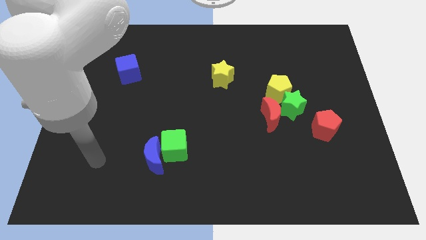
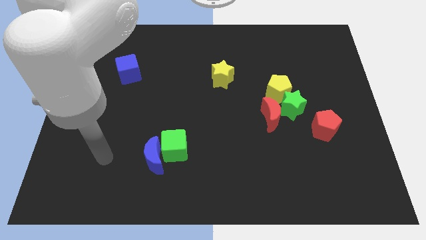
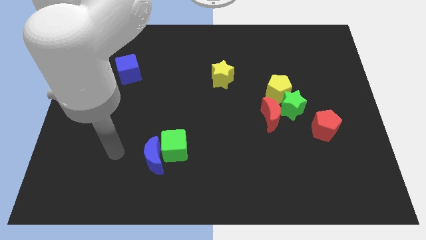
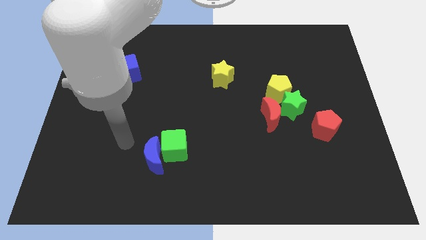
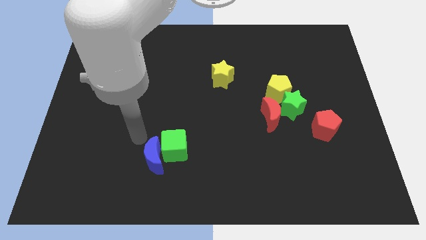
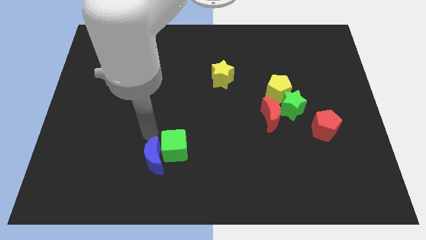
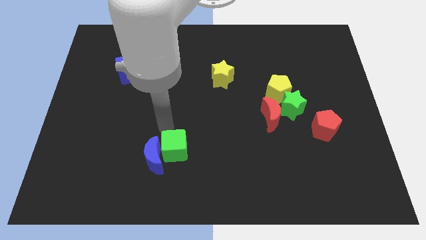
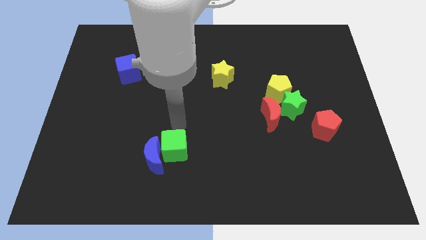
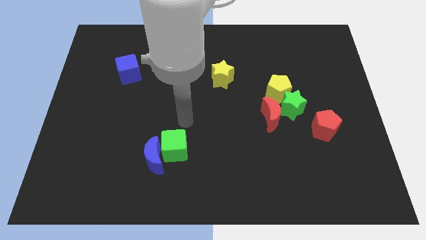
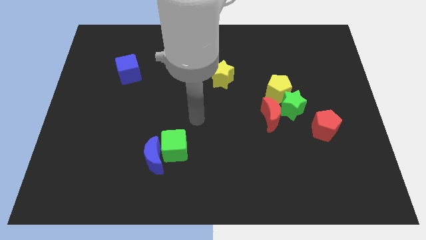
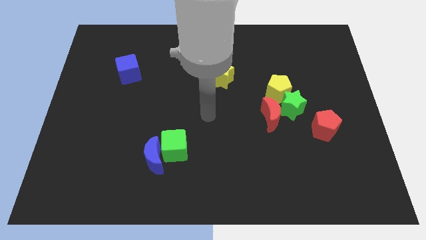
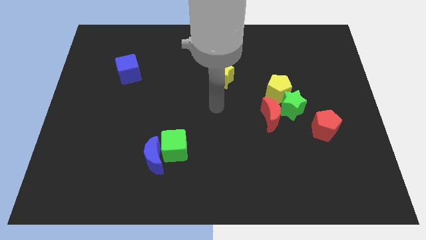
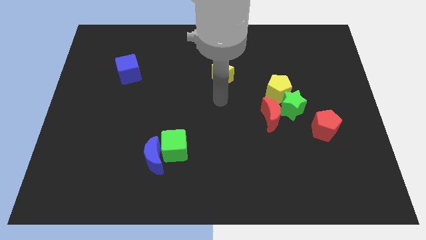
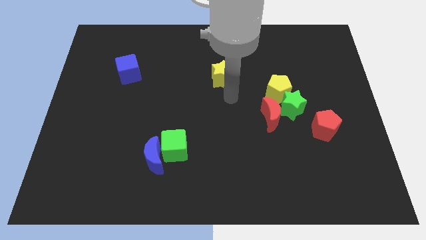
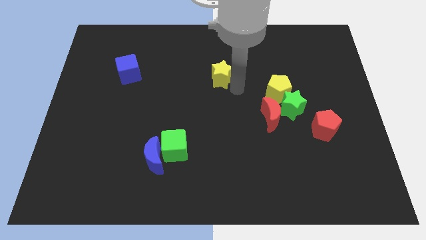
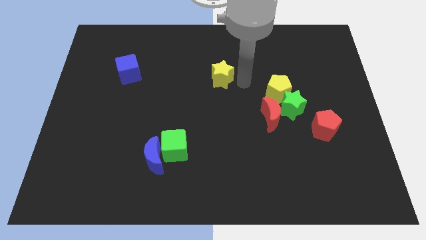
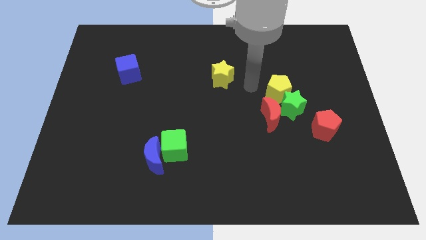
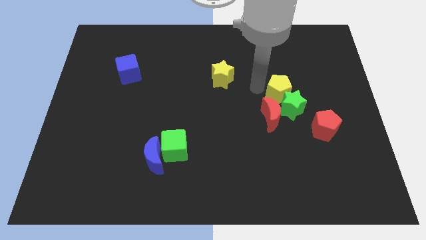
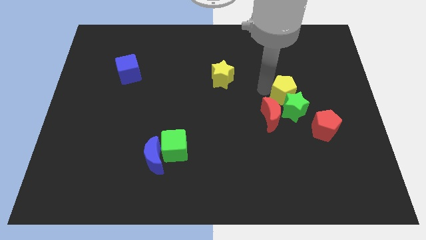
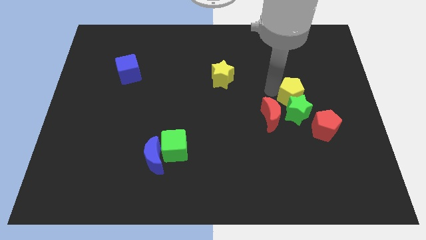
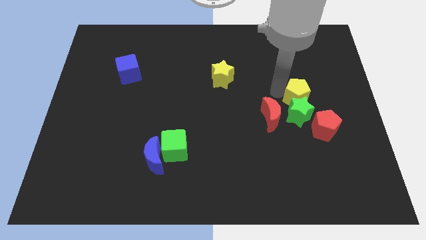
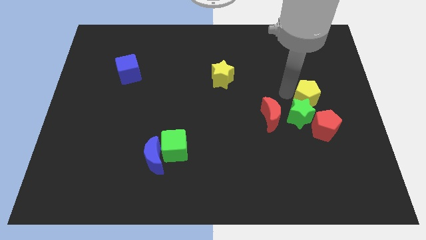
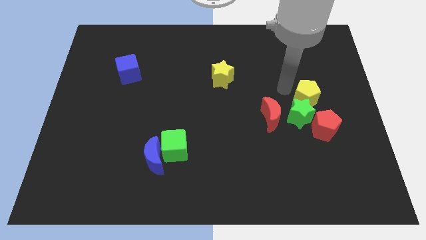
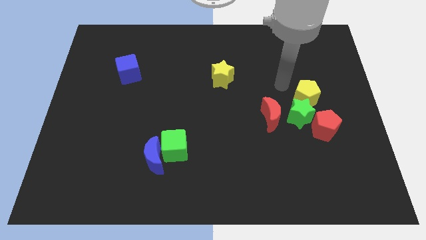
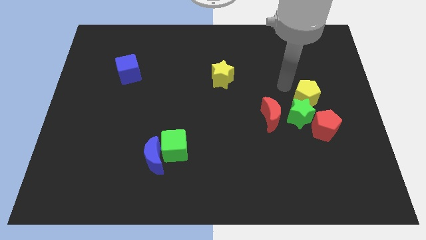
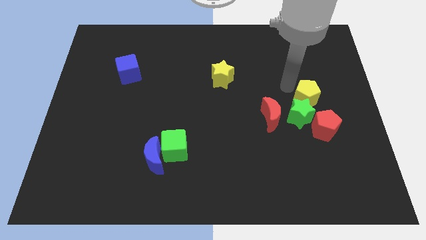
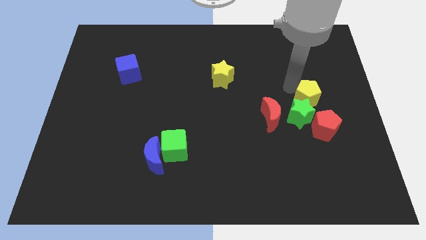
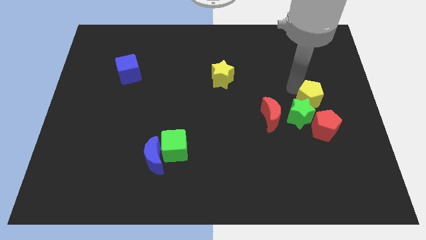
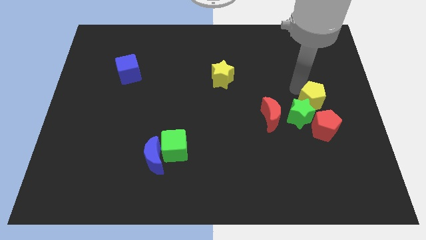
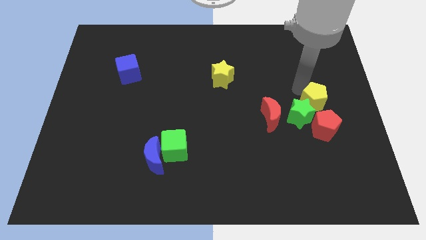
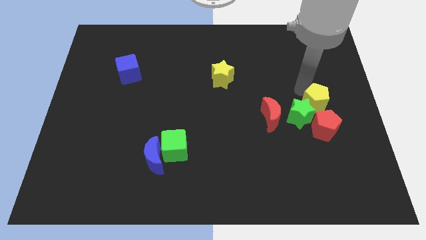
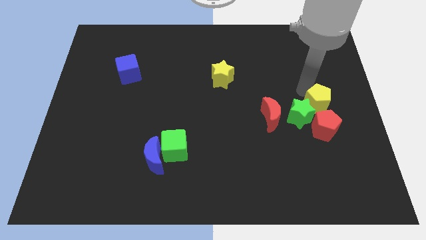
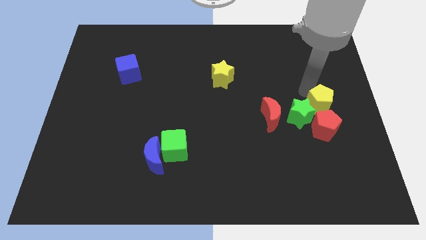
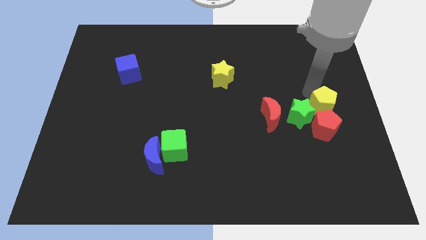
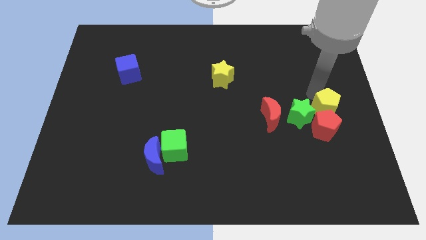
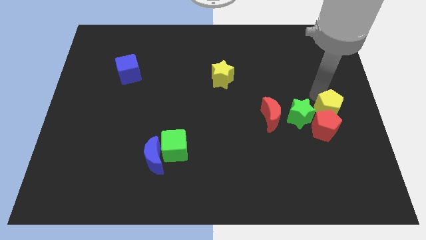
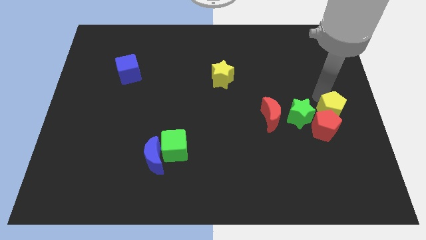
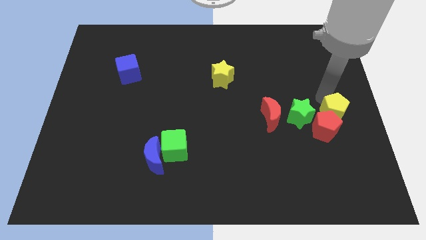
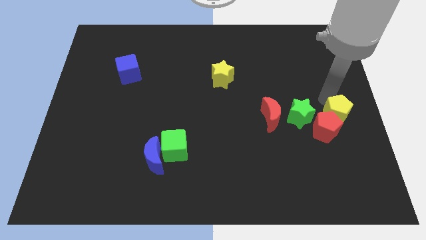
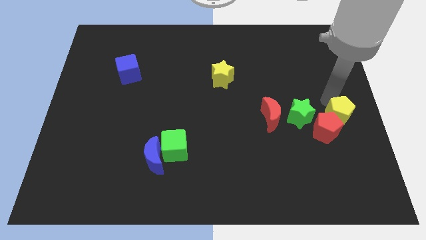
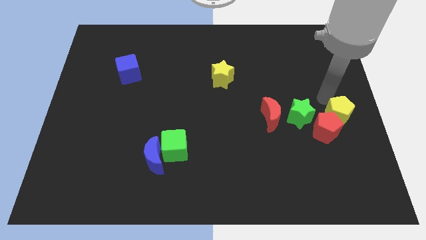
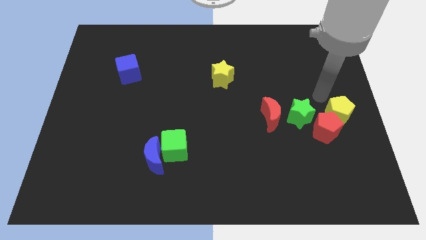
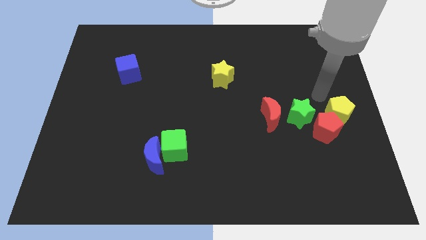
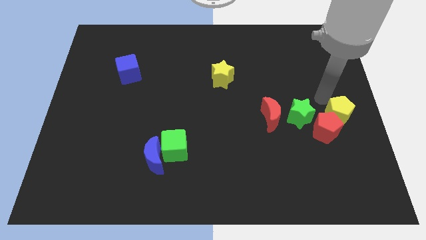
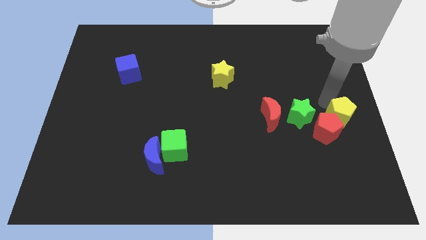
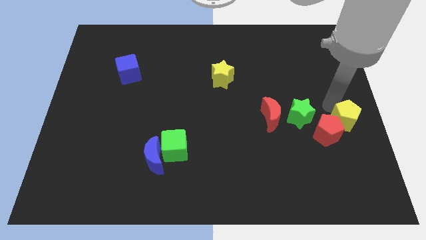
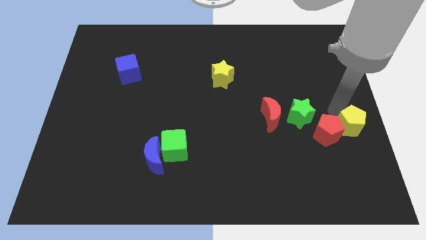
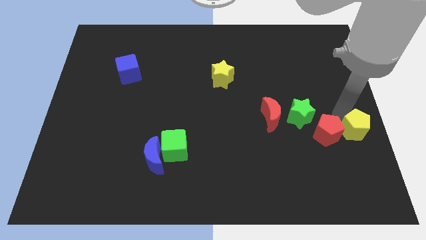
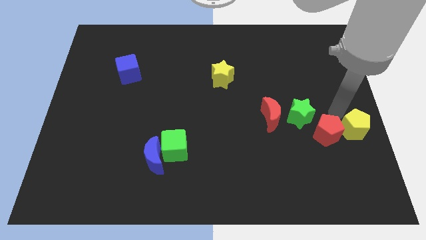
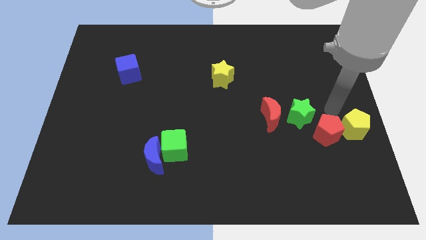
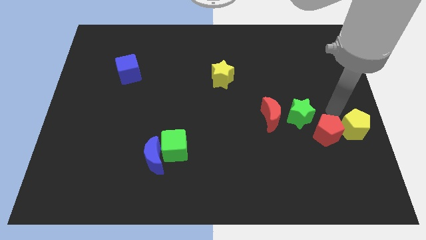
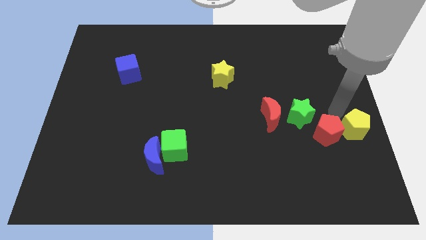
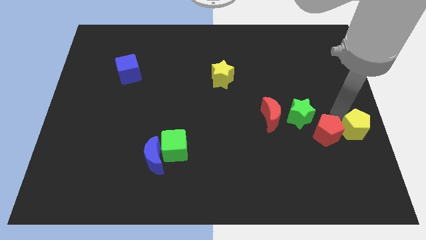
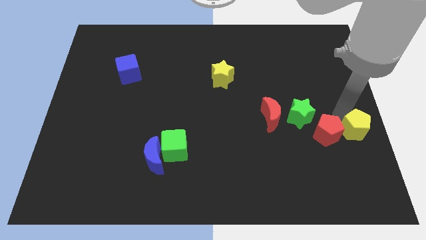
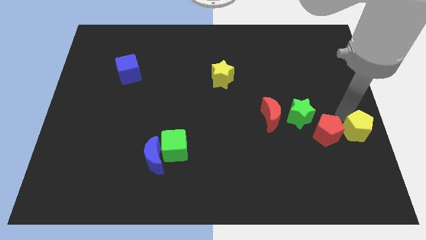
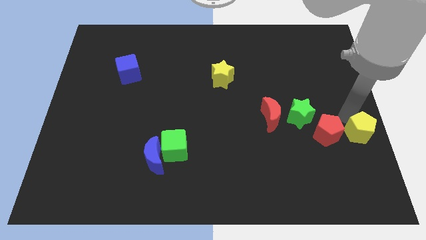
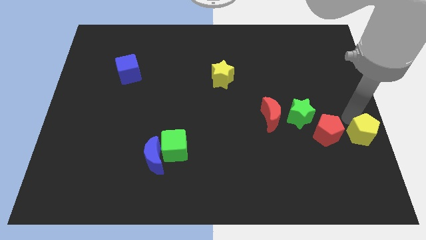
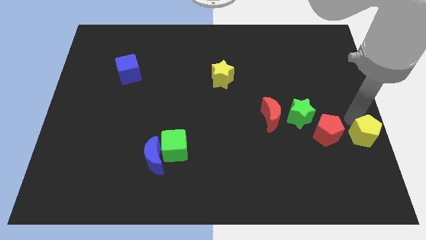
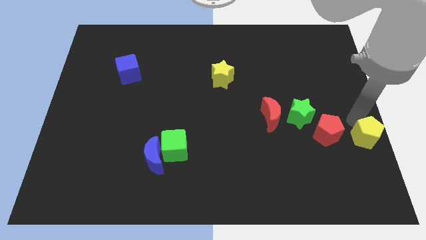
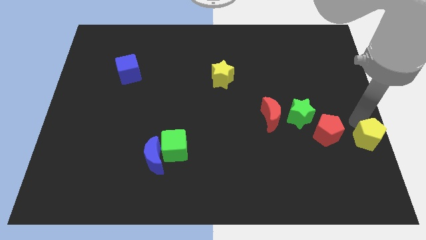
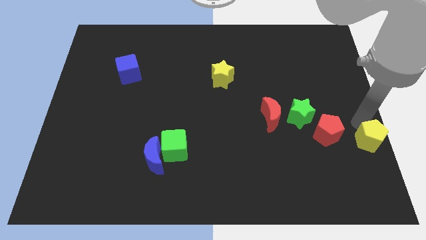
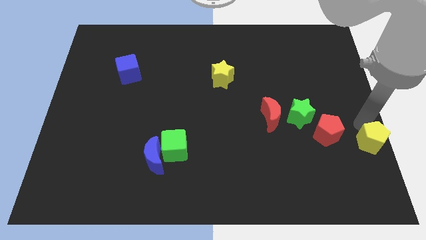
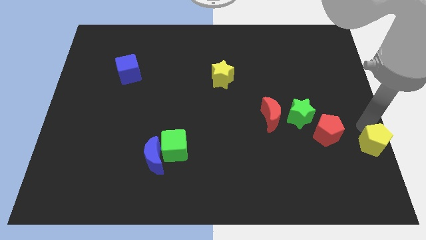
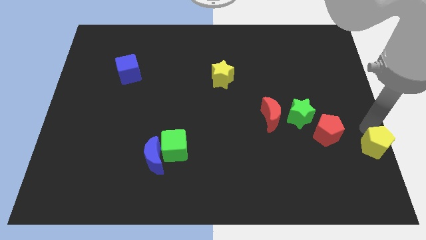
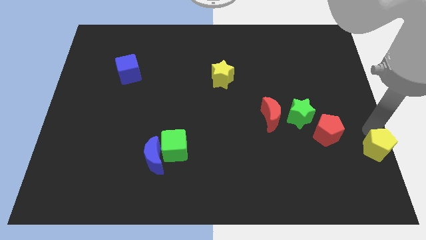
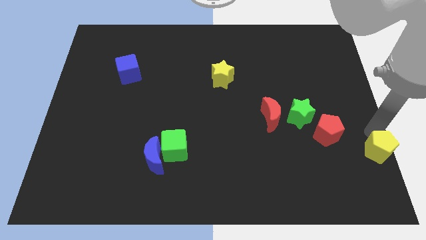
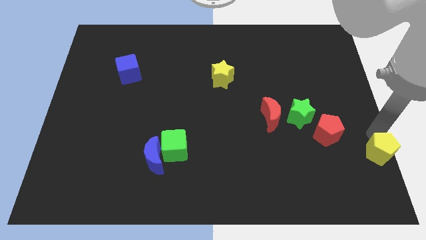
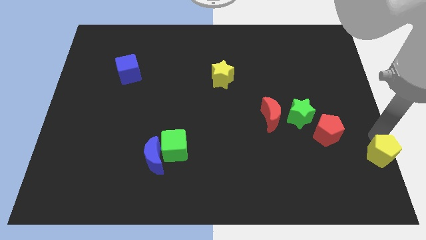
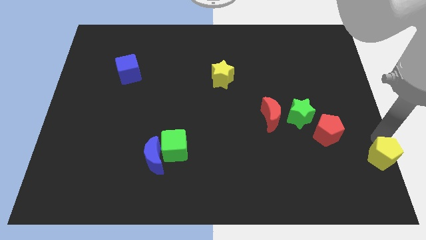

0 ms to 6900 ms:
move the yellow pentagon to the bottom right corner

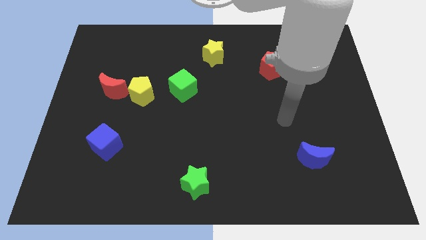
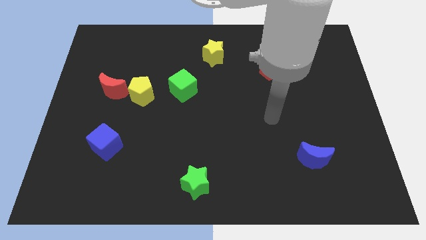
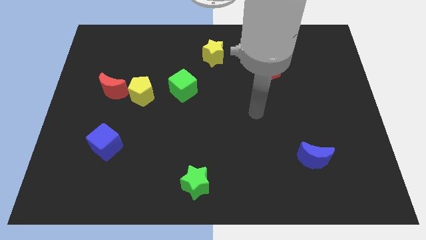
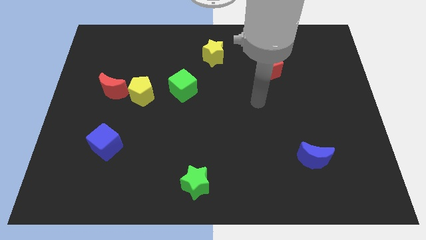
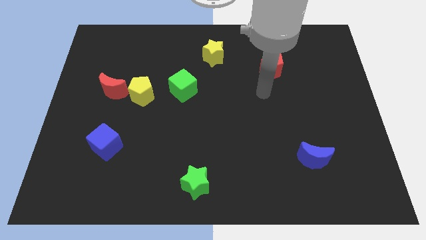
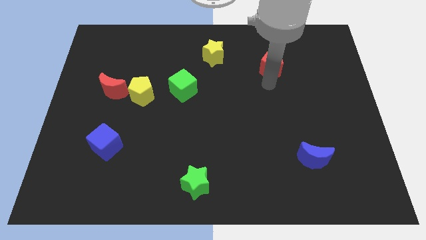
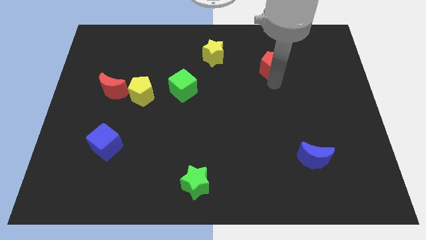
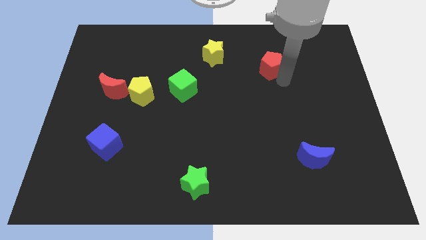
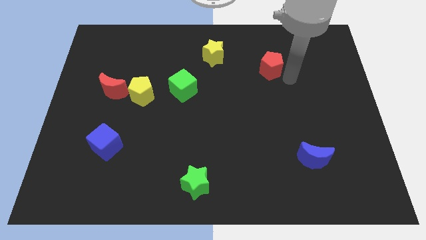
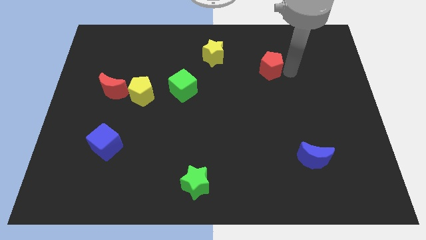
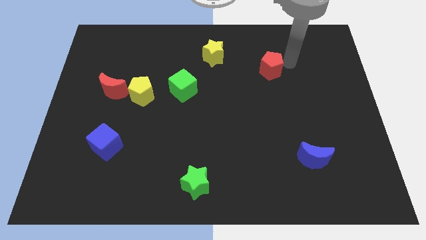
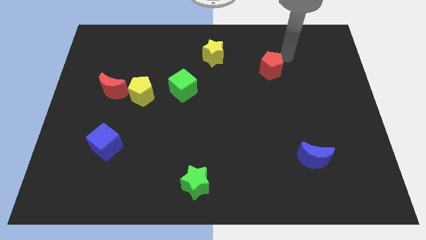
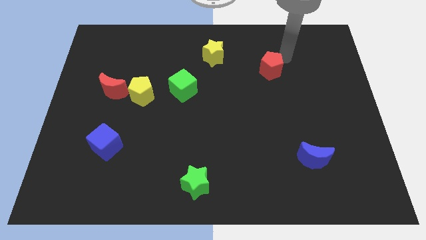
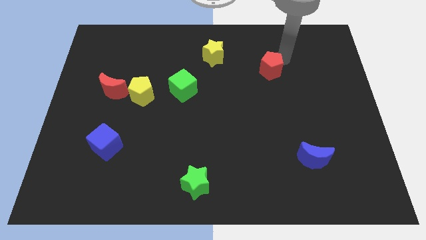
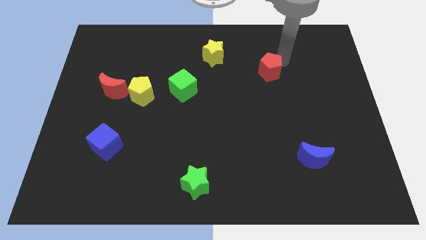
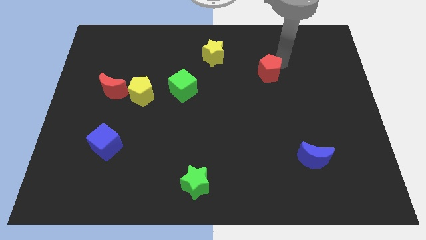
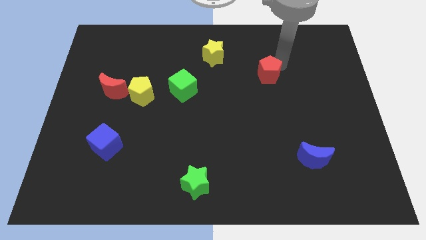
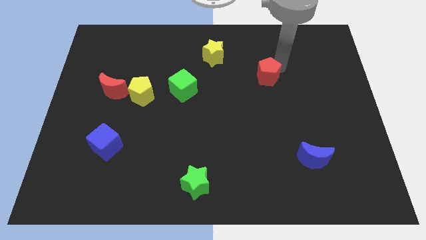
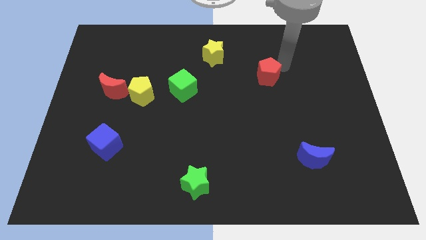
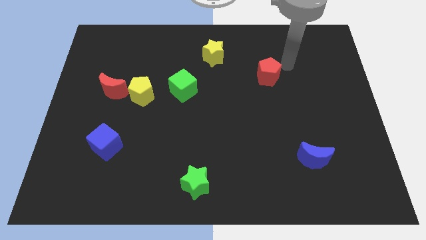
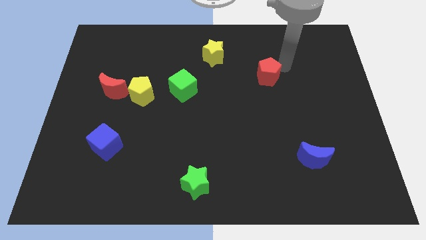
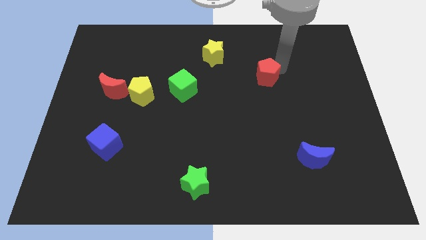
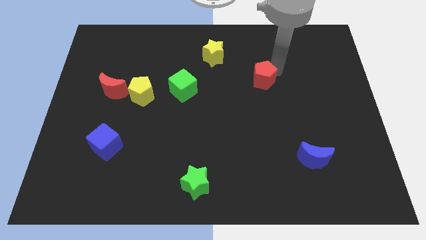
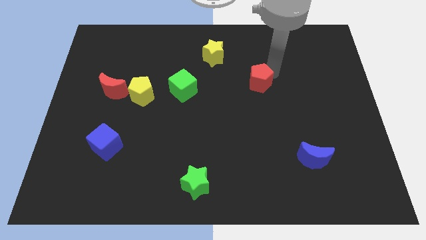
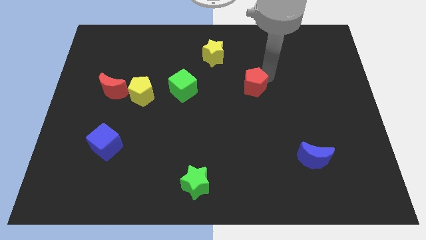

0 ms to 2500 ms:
push the red pentagon to the middle
